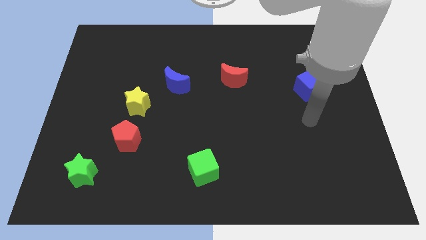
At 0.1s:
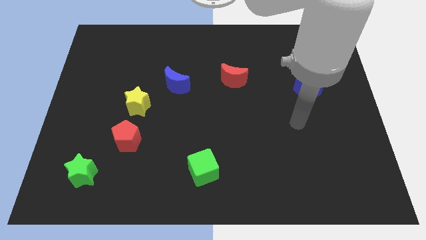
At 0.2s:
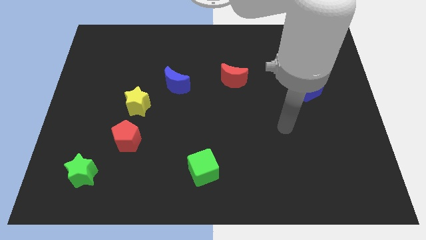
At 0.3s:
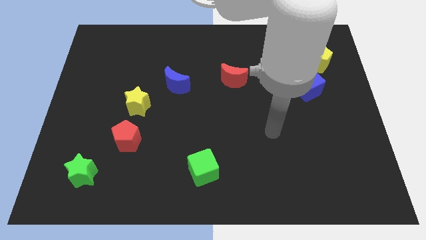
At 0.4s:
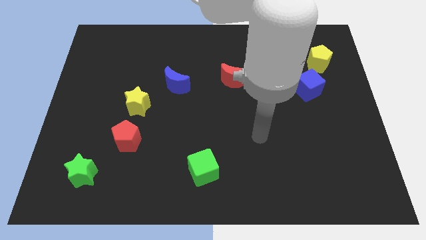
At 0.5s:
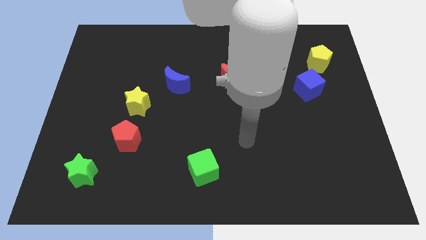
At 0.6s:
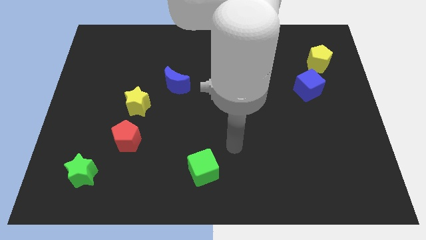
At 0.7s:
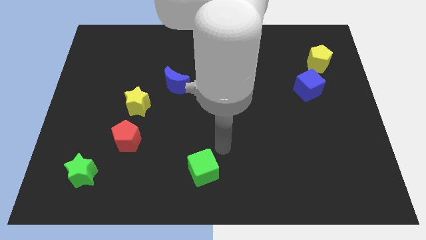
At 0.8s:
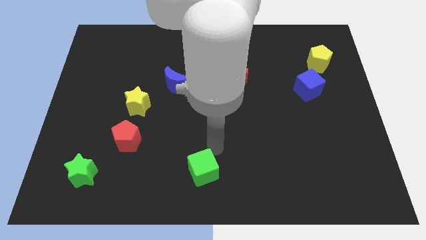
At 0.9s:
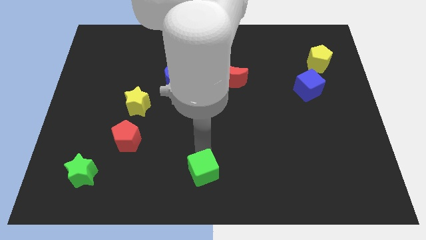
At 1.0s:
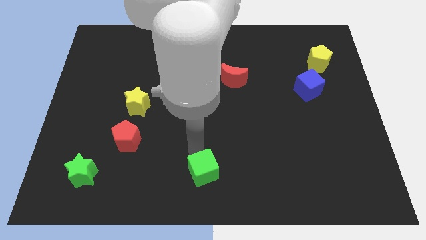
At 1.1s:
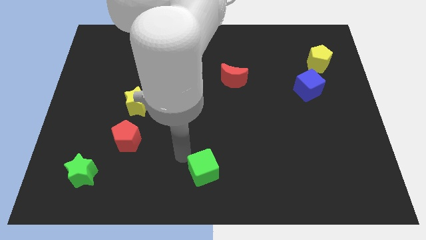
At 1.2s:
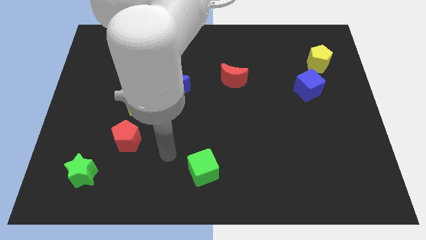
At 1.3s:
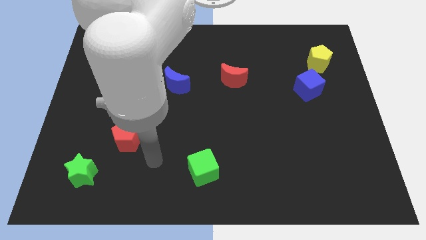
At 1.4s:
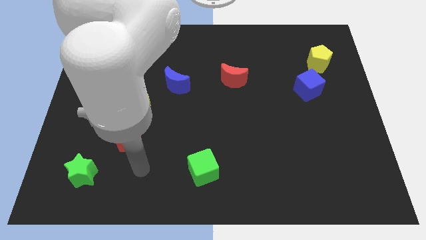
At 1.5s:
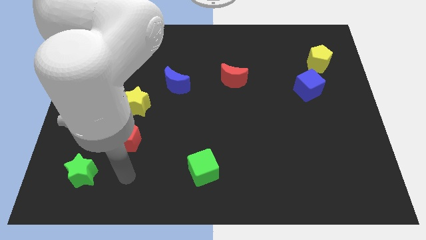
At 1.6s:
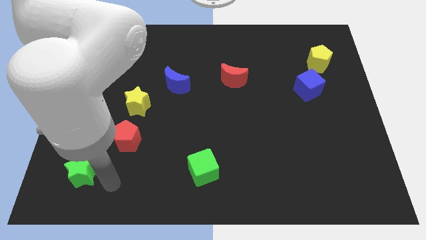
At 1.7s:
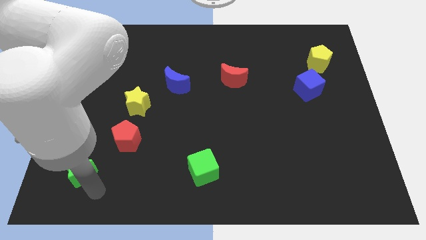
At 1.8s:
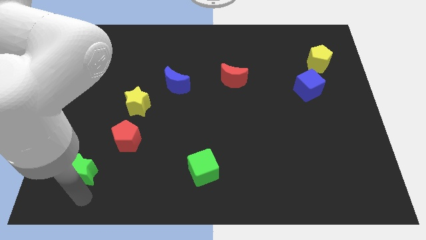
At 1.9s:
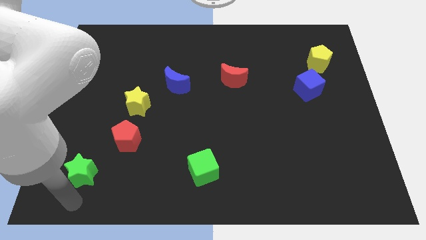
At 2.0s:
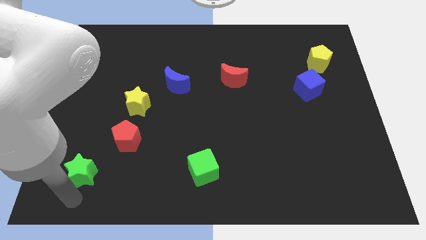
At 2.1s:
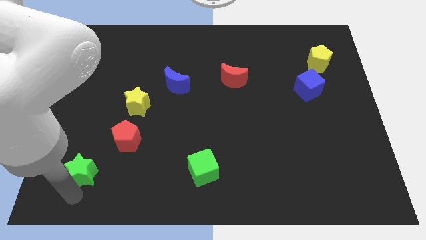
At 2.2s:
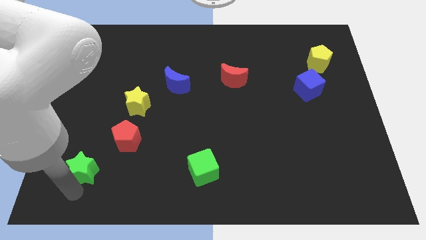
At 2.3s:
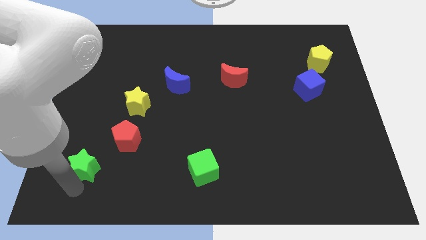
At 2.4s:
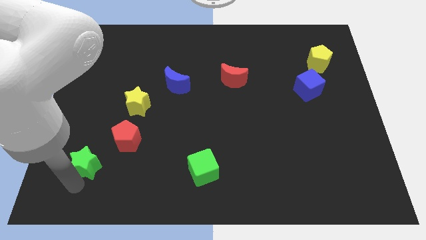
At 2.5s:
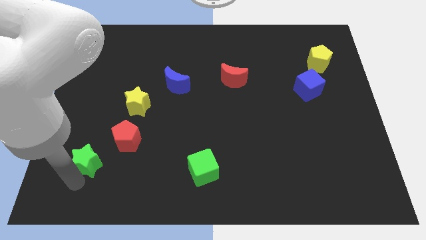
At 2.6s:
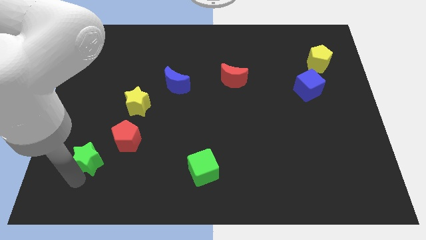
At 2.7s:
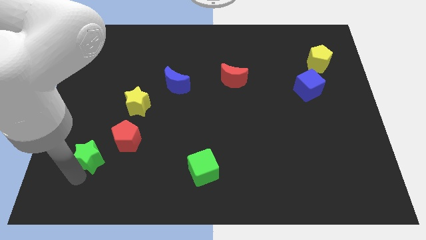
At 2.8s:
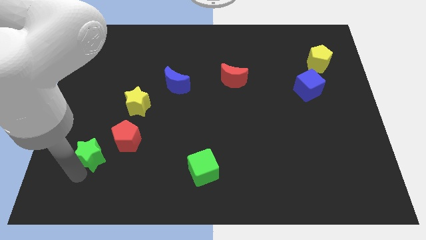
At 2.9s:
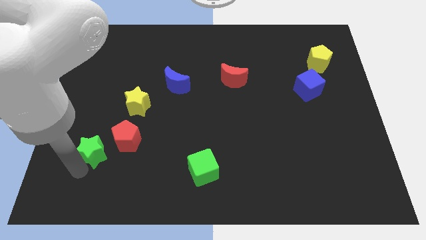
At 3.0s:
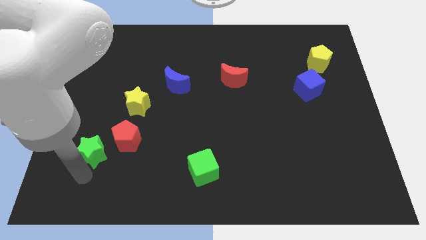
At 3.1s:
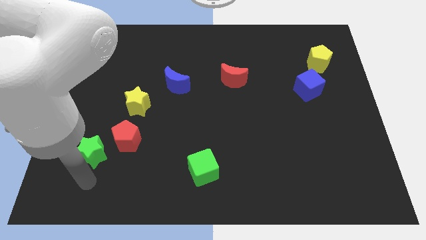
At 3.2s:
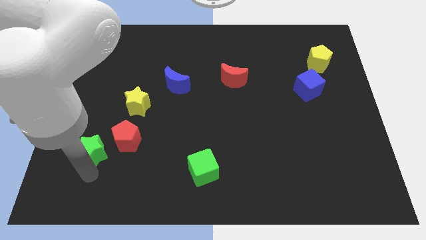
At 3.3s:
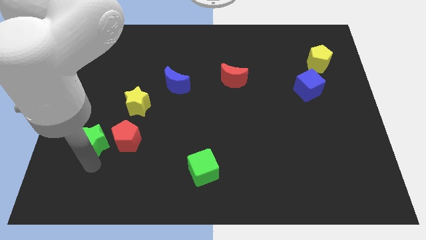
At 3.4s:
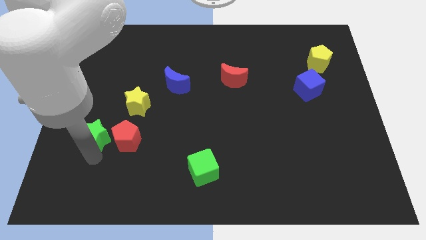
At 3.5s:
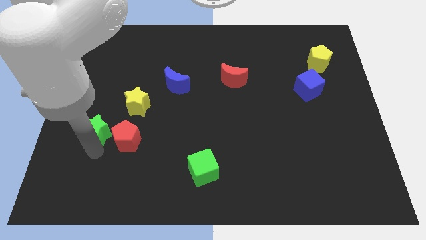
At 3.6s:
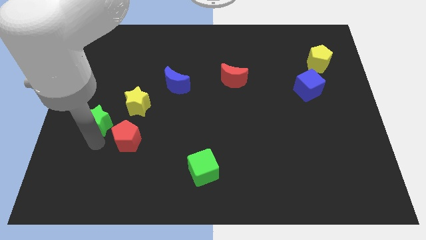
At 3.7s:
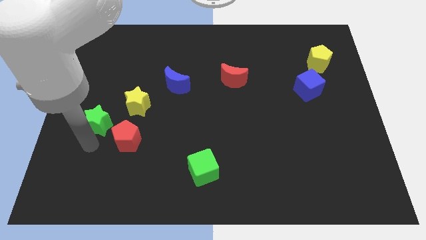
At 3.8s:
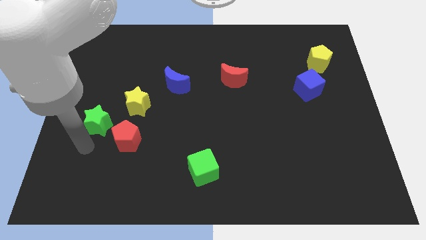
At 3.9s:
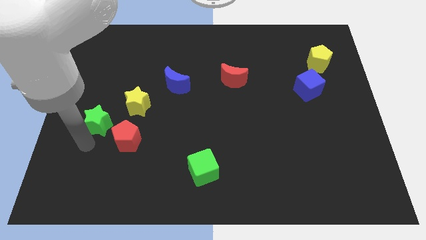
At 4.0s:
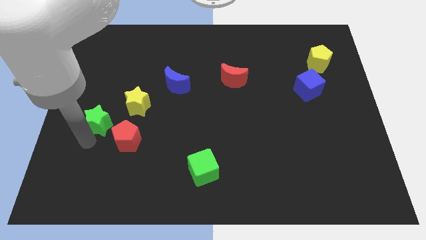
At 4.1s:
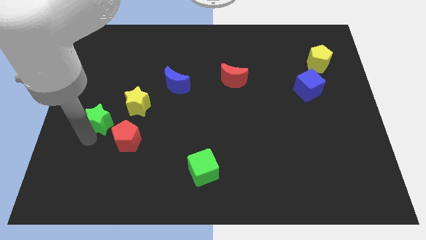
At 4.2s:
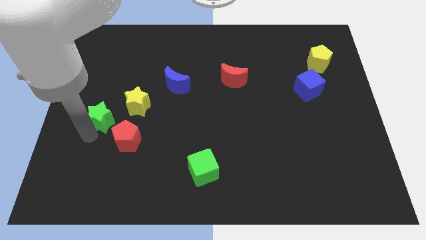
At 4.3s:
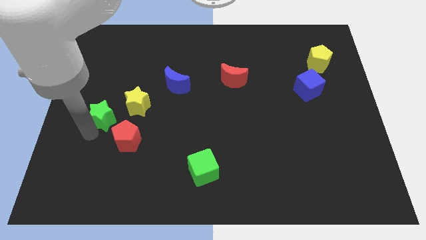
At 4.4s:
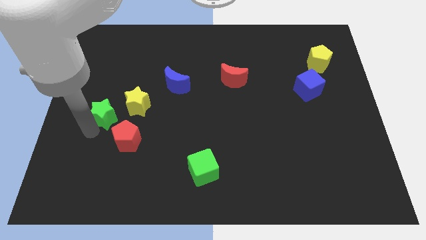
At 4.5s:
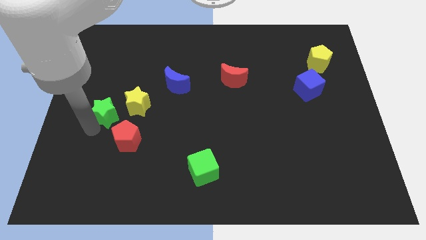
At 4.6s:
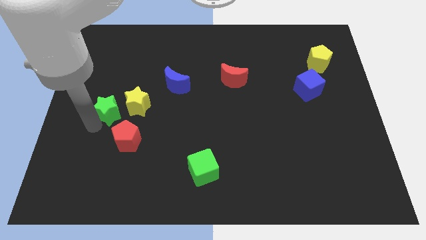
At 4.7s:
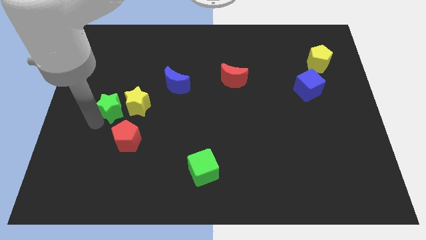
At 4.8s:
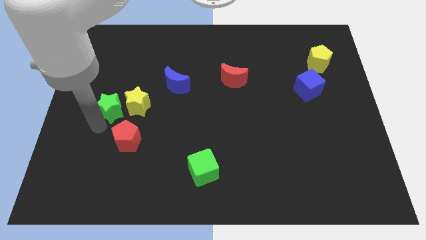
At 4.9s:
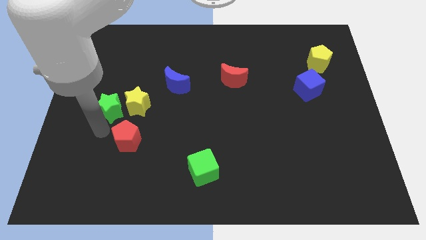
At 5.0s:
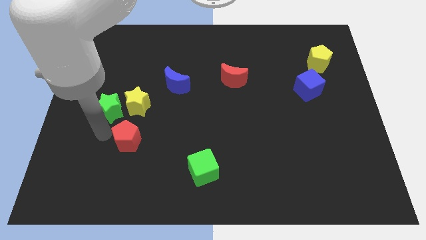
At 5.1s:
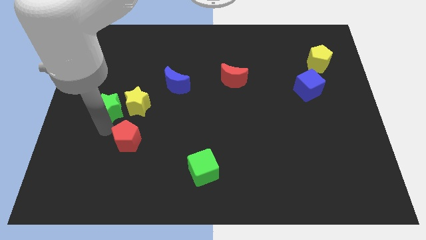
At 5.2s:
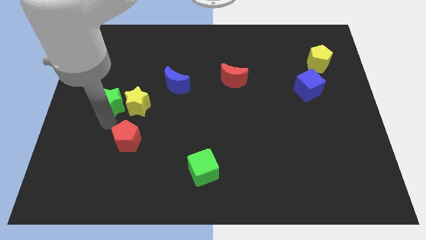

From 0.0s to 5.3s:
put the green star to the top left side of the yellow star

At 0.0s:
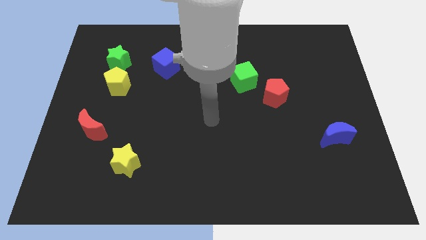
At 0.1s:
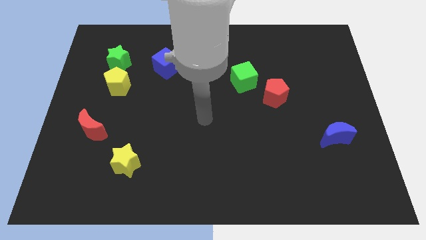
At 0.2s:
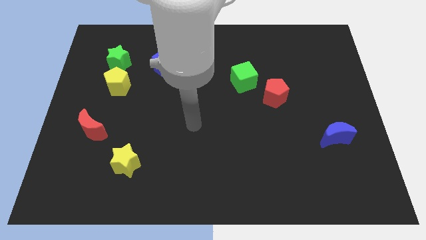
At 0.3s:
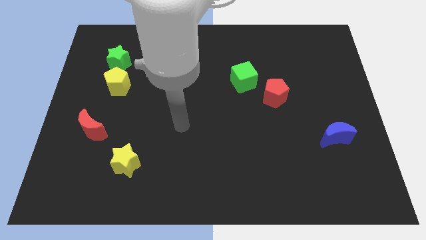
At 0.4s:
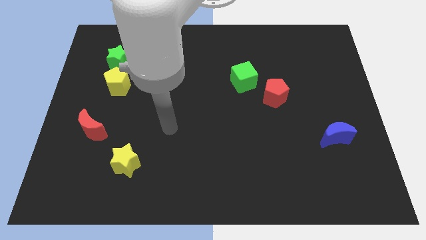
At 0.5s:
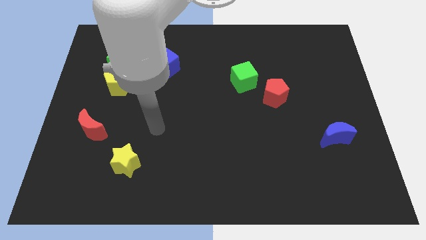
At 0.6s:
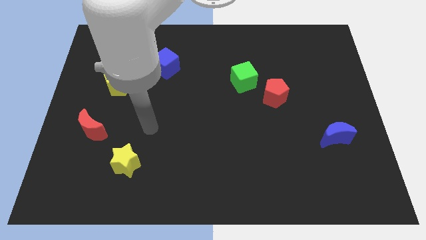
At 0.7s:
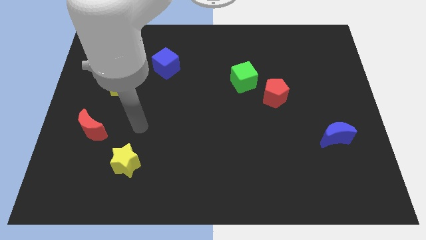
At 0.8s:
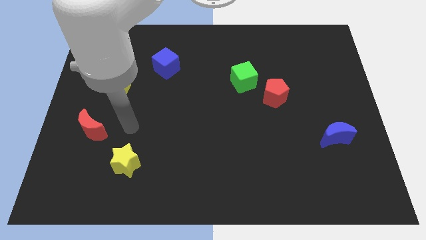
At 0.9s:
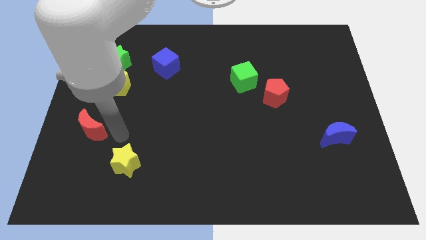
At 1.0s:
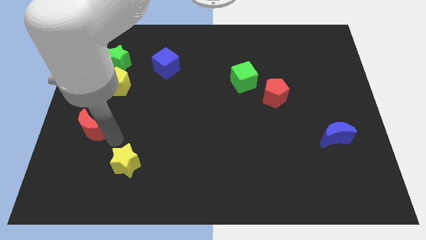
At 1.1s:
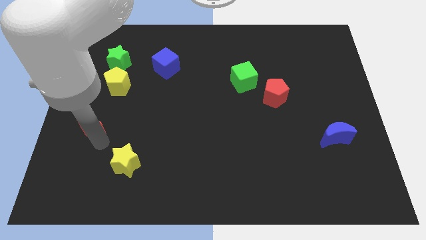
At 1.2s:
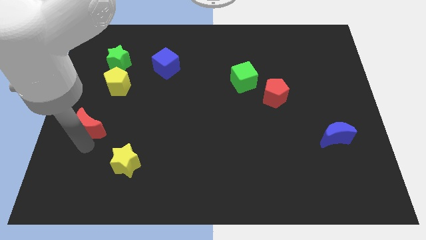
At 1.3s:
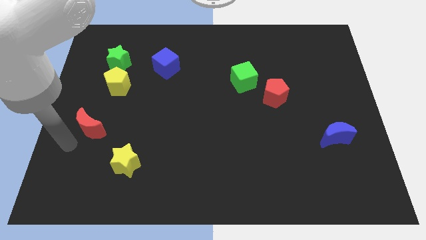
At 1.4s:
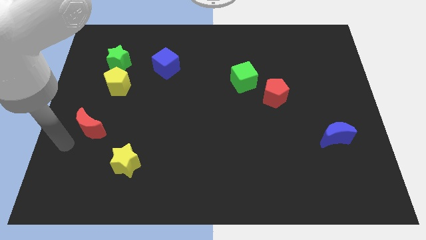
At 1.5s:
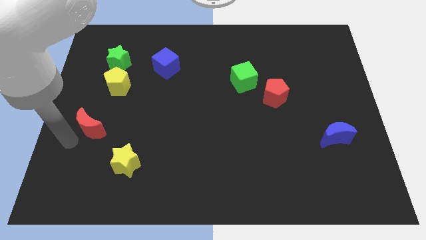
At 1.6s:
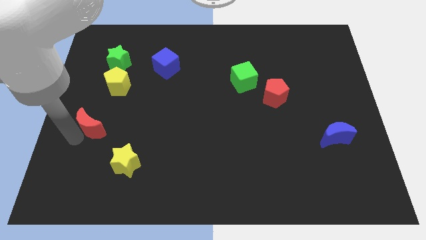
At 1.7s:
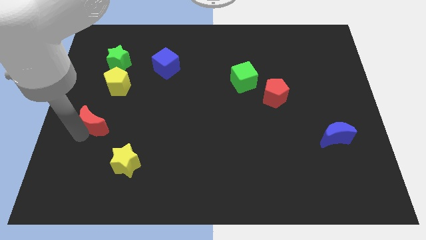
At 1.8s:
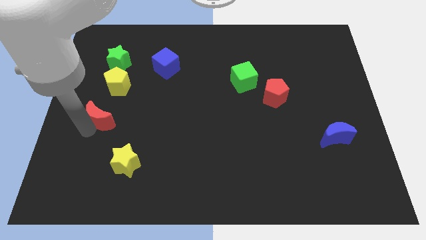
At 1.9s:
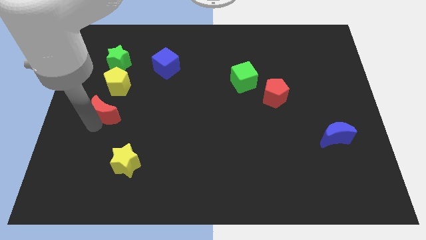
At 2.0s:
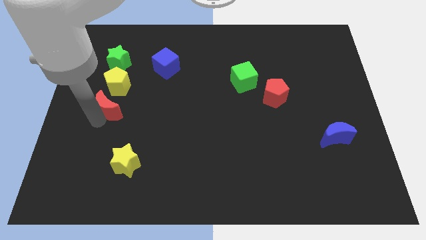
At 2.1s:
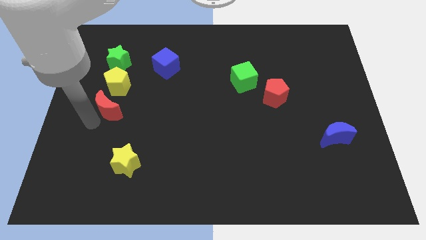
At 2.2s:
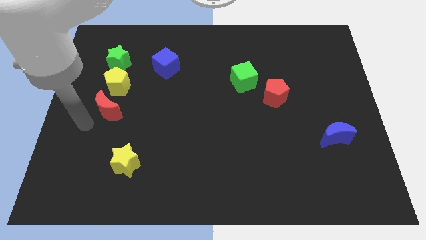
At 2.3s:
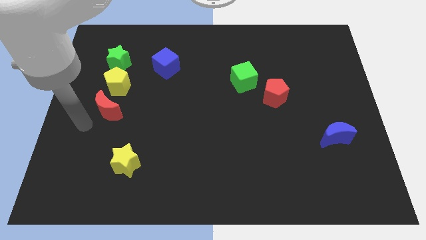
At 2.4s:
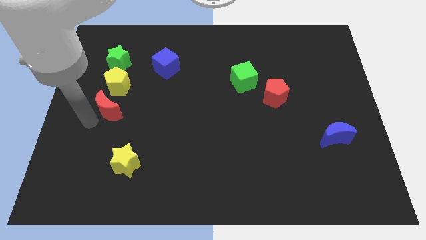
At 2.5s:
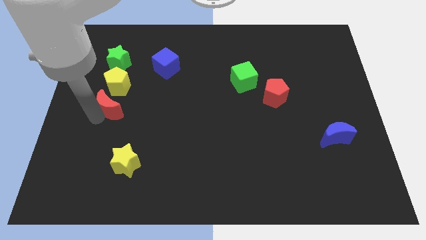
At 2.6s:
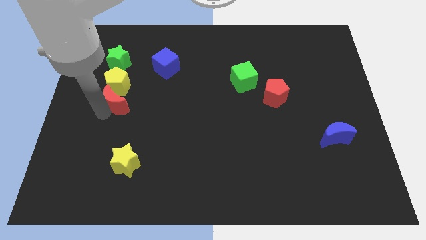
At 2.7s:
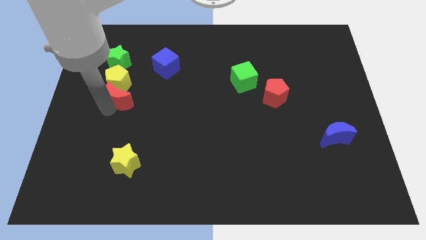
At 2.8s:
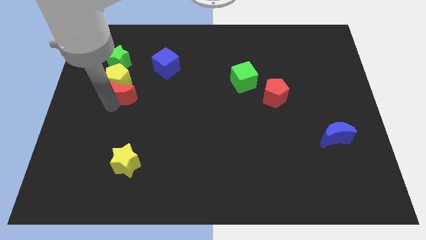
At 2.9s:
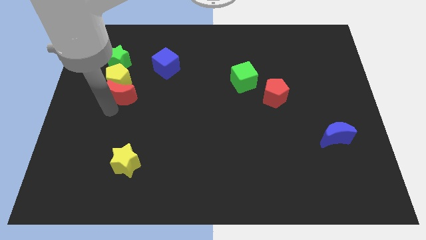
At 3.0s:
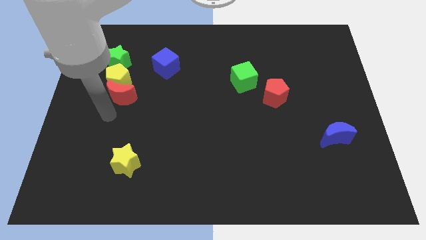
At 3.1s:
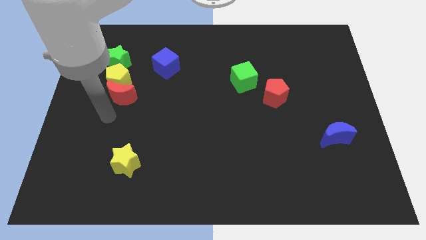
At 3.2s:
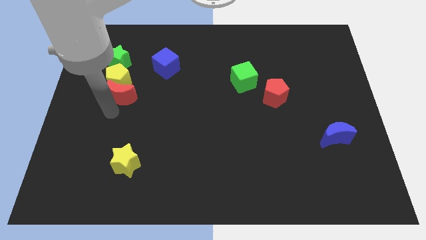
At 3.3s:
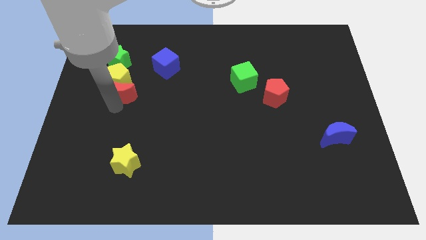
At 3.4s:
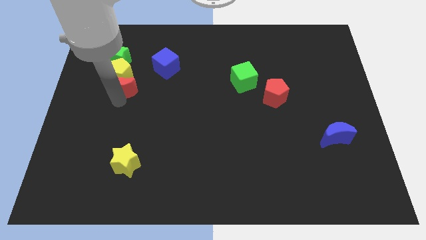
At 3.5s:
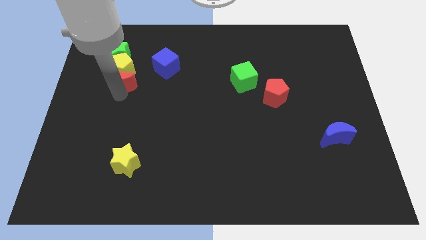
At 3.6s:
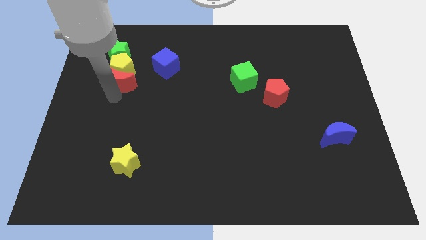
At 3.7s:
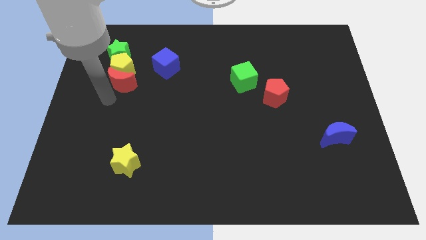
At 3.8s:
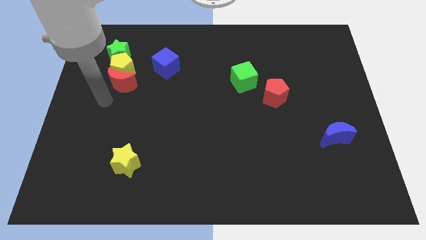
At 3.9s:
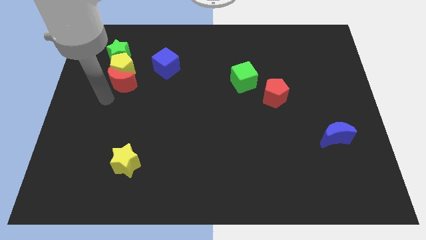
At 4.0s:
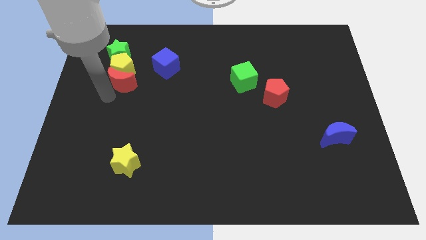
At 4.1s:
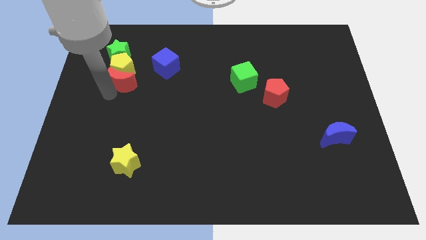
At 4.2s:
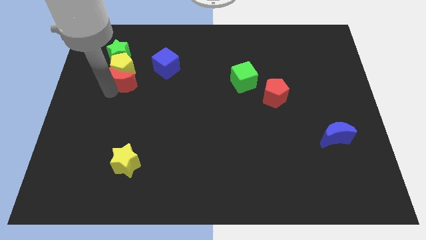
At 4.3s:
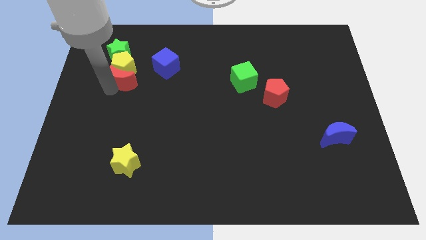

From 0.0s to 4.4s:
put the red moon to the bottom right of the green star
